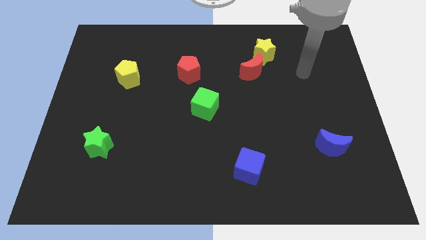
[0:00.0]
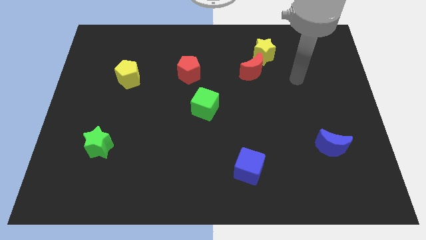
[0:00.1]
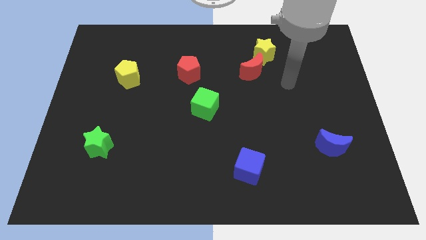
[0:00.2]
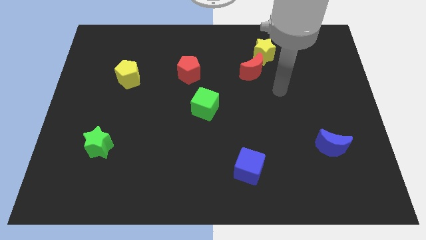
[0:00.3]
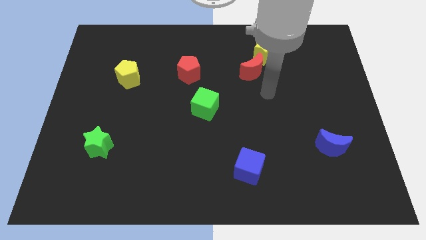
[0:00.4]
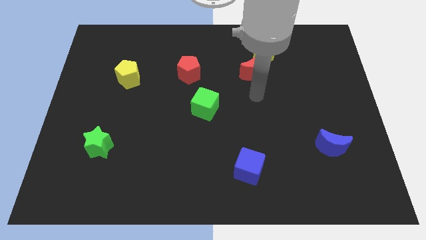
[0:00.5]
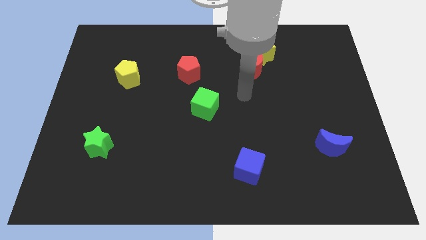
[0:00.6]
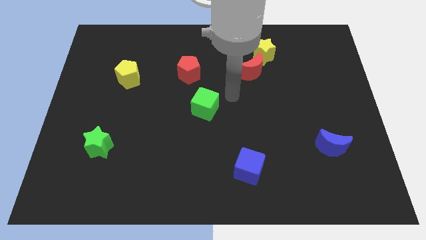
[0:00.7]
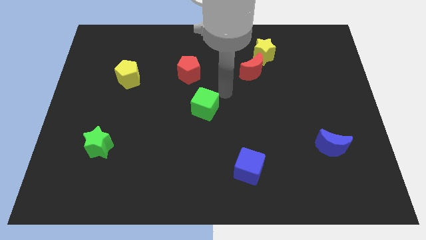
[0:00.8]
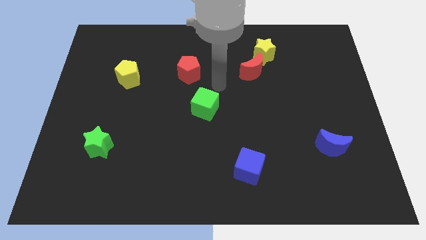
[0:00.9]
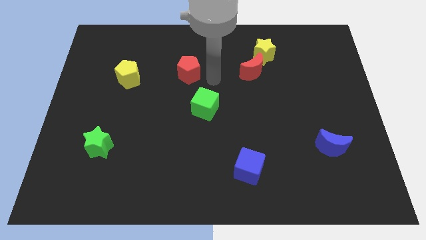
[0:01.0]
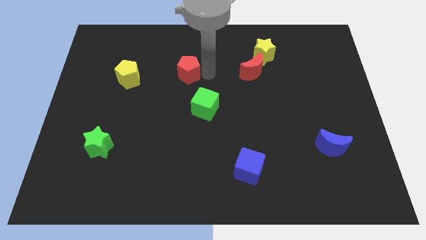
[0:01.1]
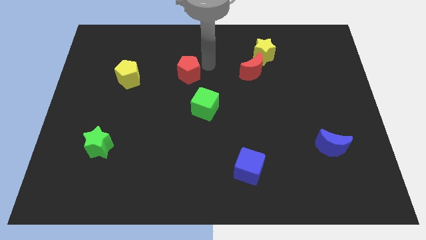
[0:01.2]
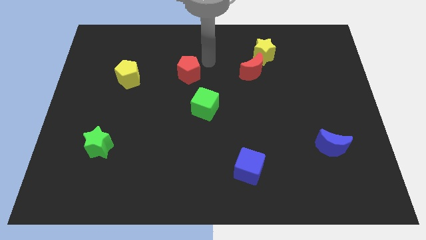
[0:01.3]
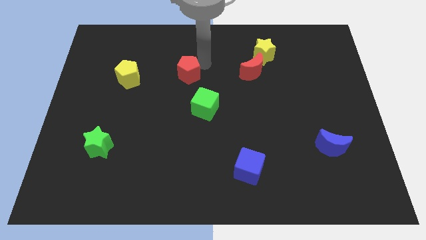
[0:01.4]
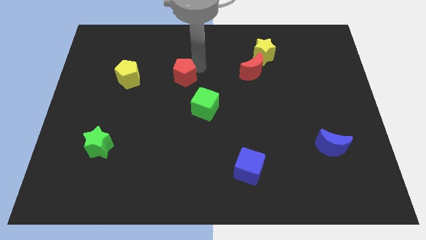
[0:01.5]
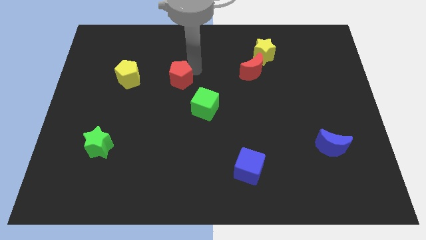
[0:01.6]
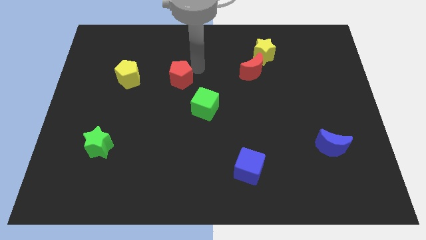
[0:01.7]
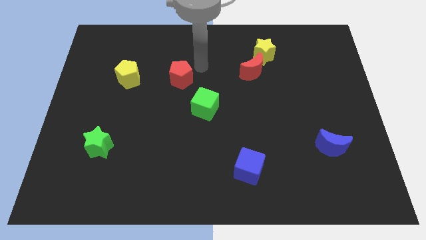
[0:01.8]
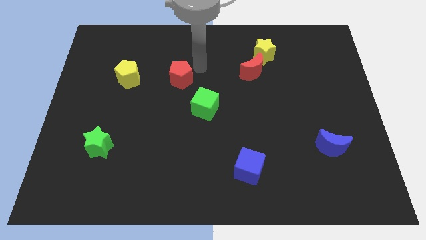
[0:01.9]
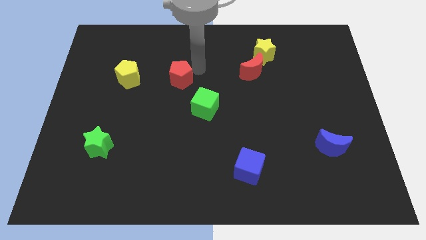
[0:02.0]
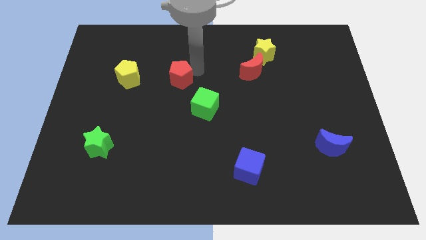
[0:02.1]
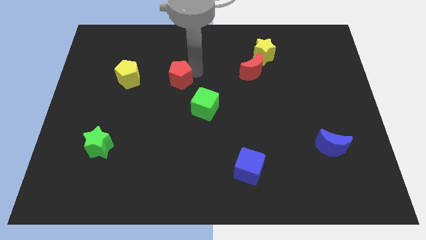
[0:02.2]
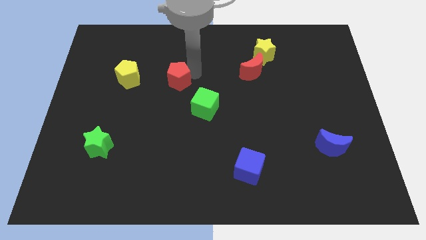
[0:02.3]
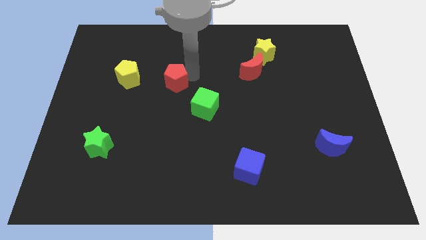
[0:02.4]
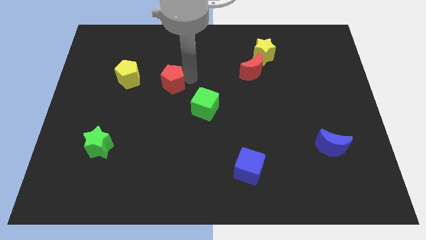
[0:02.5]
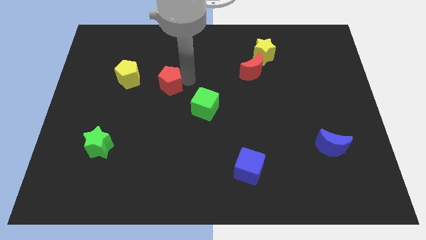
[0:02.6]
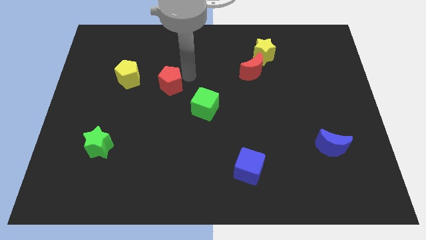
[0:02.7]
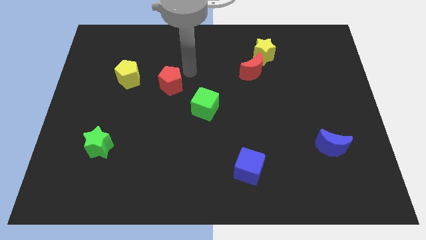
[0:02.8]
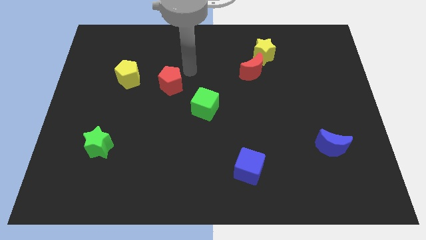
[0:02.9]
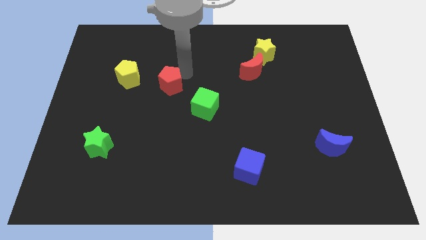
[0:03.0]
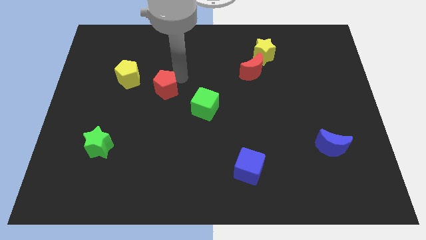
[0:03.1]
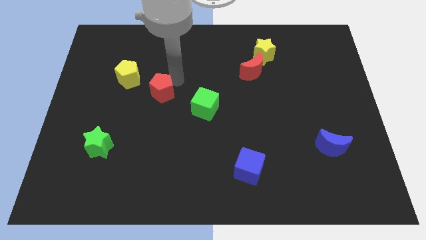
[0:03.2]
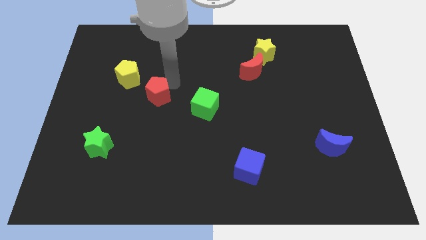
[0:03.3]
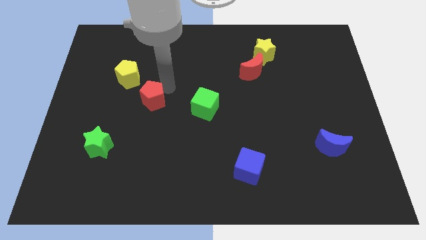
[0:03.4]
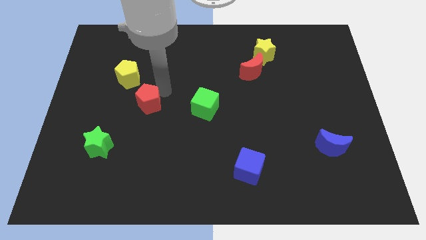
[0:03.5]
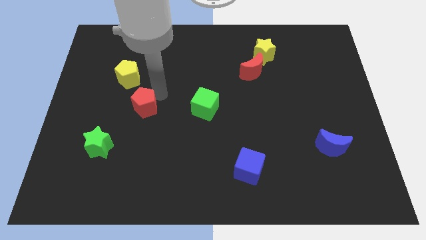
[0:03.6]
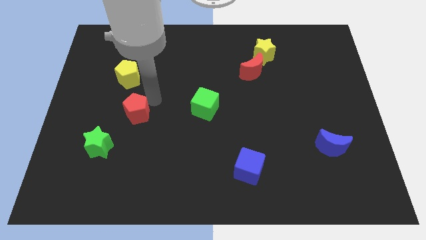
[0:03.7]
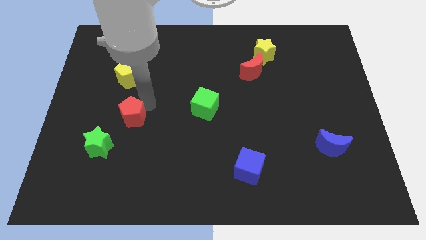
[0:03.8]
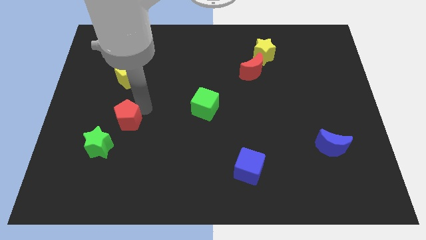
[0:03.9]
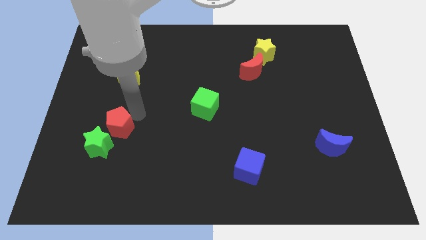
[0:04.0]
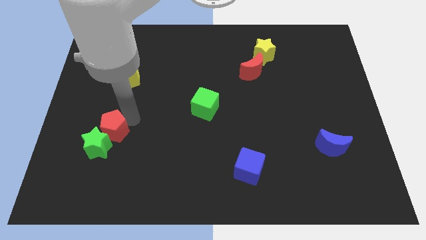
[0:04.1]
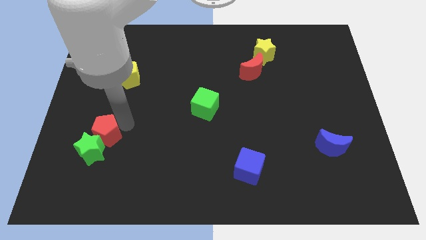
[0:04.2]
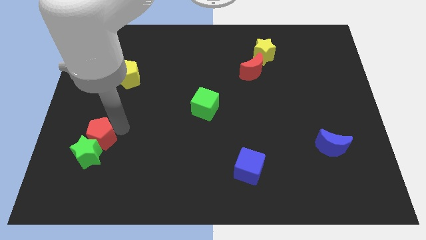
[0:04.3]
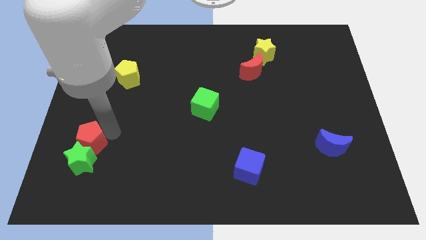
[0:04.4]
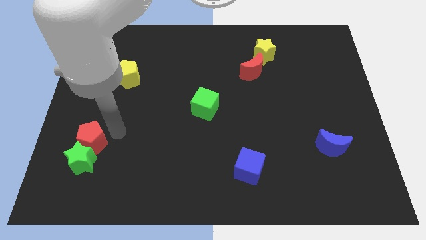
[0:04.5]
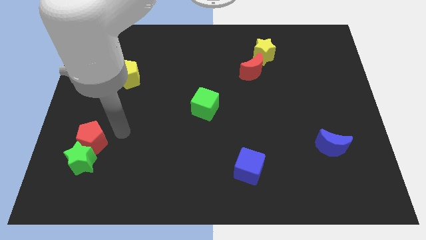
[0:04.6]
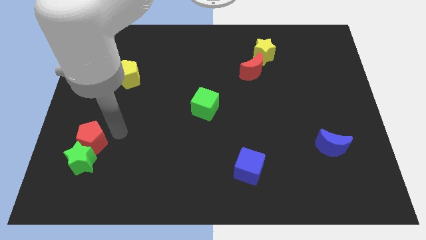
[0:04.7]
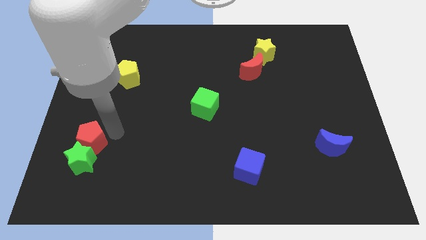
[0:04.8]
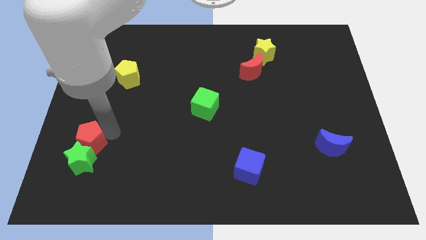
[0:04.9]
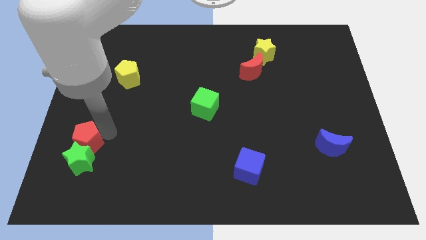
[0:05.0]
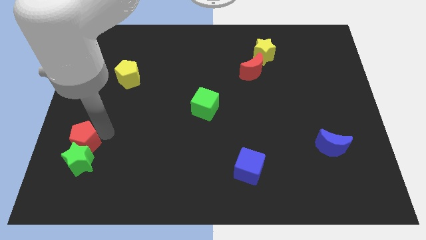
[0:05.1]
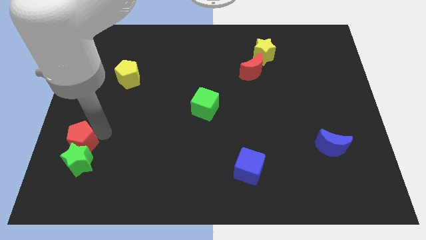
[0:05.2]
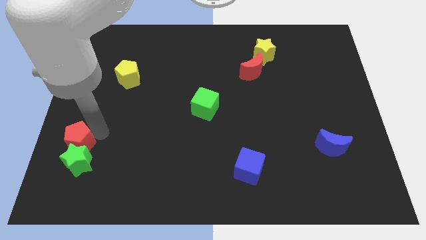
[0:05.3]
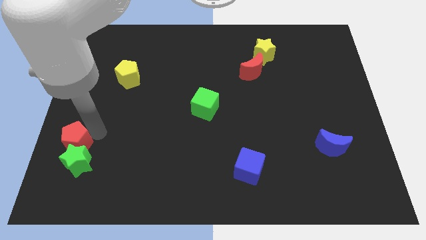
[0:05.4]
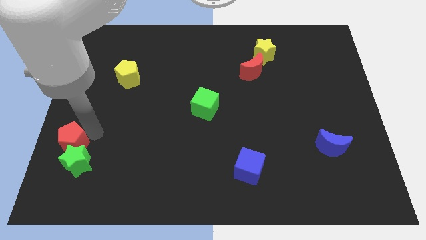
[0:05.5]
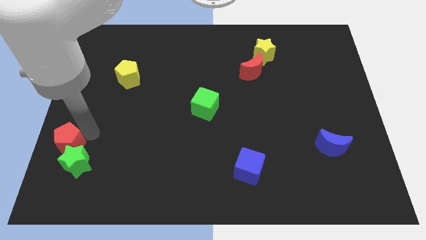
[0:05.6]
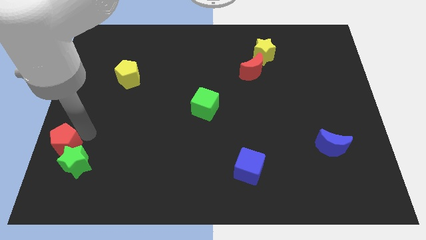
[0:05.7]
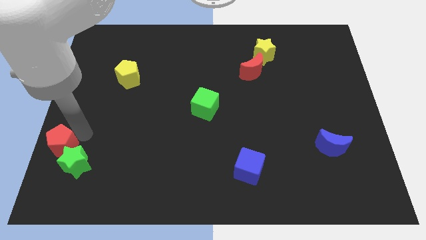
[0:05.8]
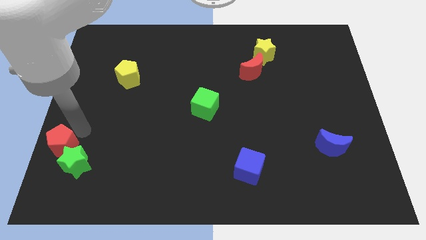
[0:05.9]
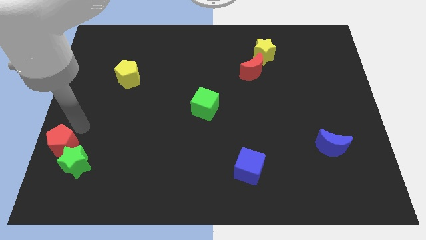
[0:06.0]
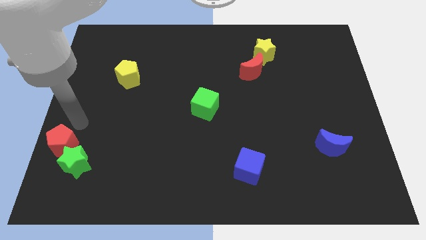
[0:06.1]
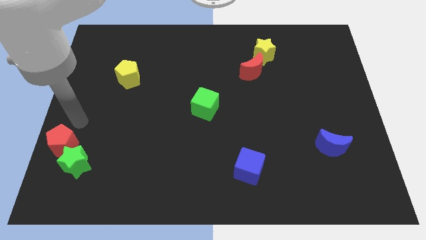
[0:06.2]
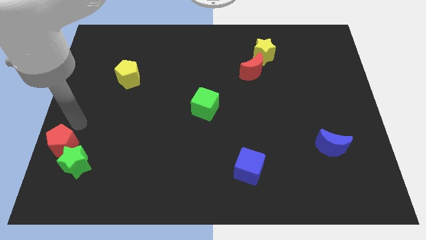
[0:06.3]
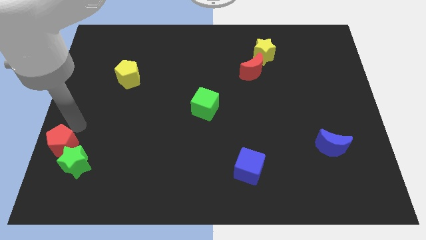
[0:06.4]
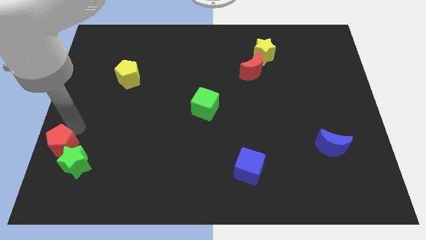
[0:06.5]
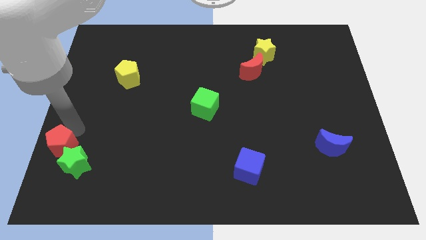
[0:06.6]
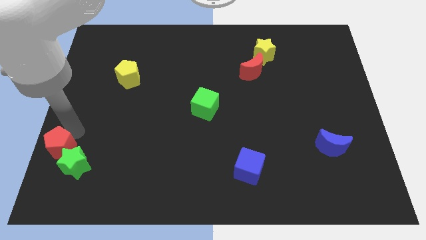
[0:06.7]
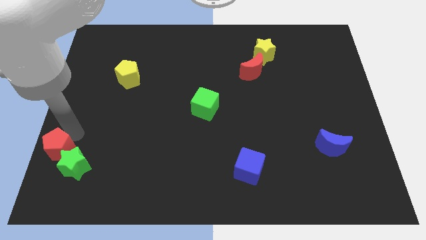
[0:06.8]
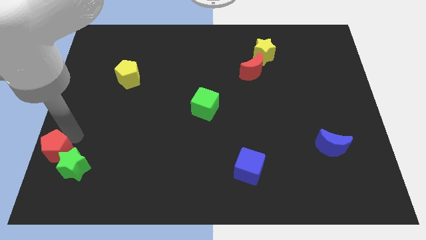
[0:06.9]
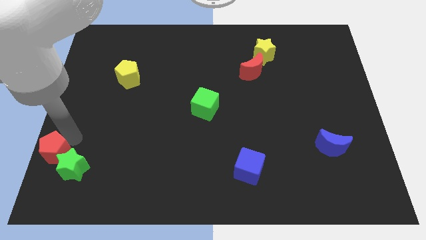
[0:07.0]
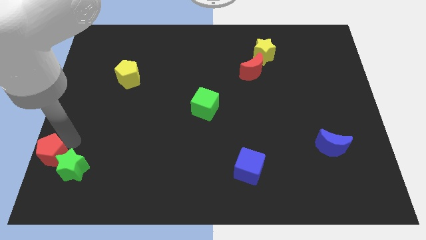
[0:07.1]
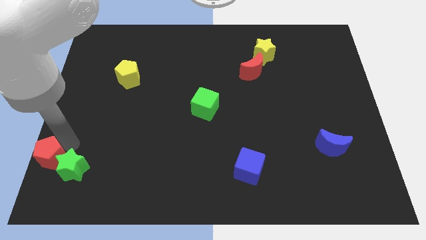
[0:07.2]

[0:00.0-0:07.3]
push the red pentagon to the lower left corner
